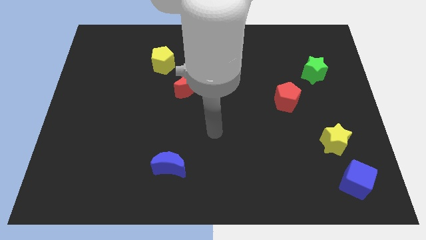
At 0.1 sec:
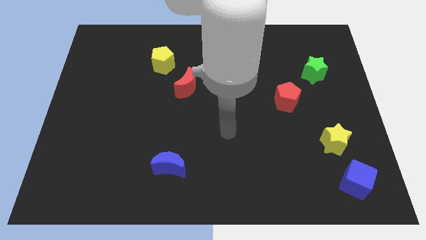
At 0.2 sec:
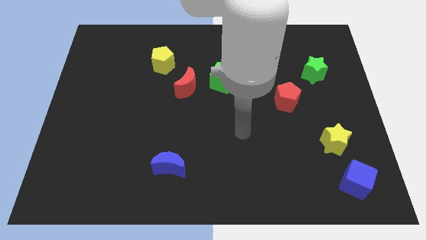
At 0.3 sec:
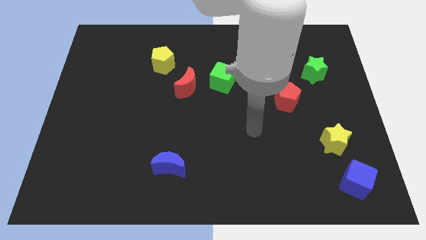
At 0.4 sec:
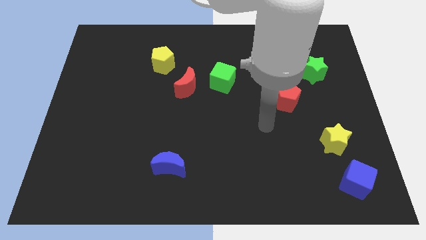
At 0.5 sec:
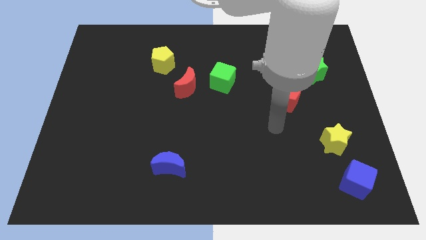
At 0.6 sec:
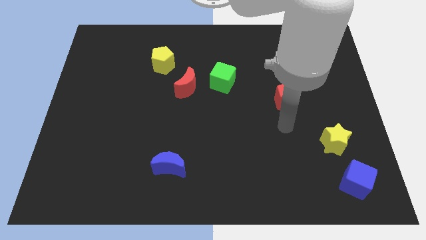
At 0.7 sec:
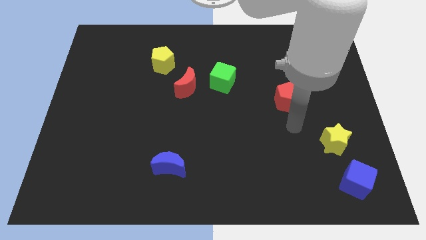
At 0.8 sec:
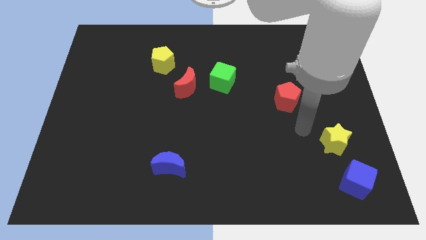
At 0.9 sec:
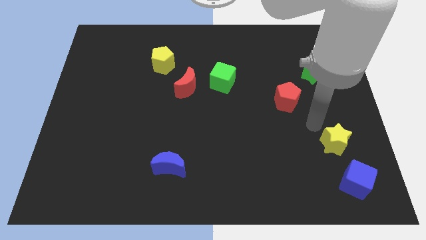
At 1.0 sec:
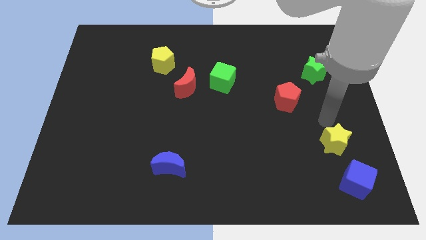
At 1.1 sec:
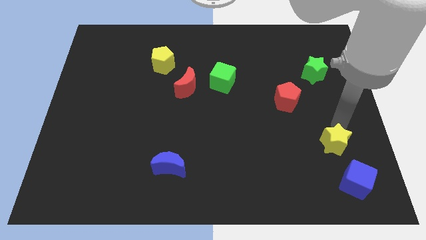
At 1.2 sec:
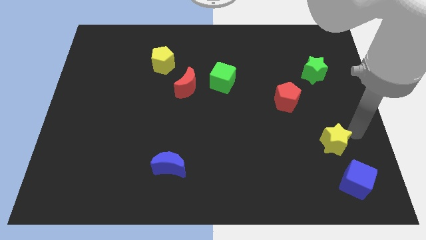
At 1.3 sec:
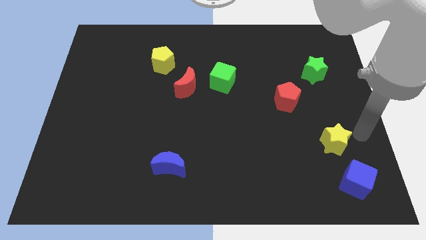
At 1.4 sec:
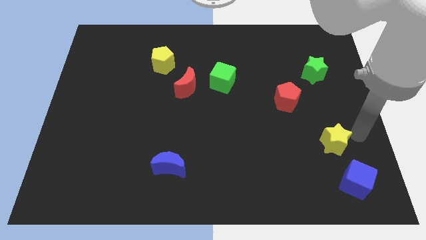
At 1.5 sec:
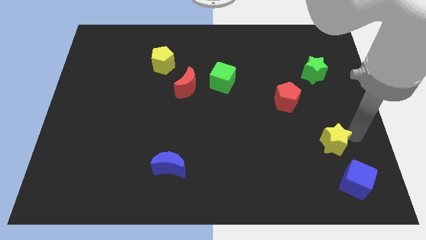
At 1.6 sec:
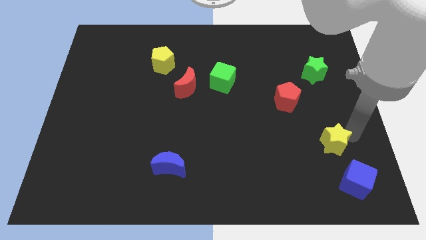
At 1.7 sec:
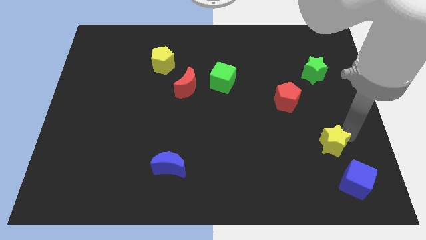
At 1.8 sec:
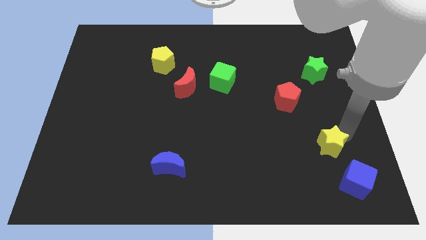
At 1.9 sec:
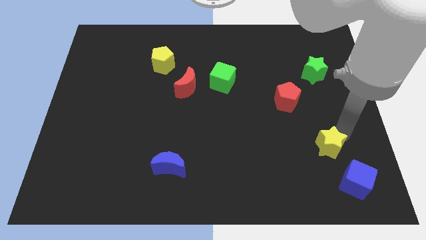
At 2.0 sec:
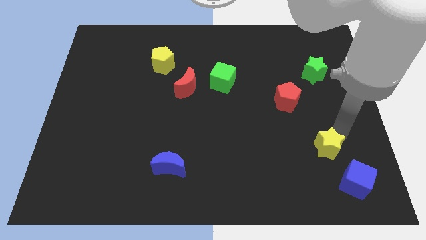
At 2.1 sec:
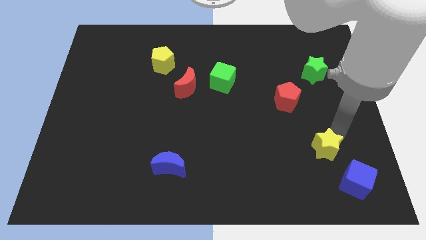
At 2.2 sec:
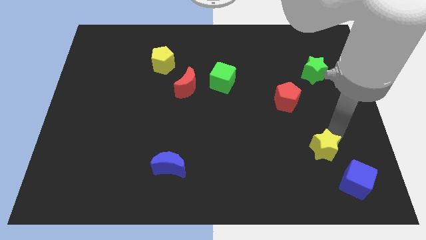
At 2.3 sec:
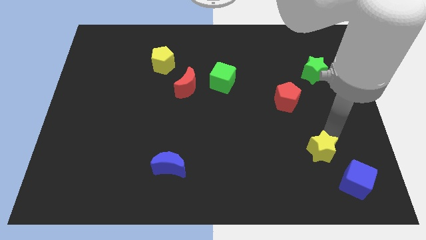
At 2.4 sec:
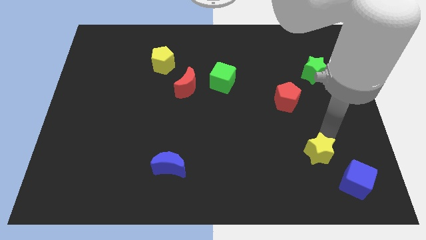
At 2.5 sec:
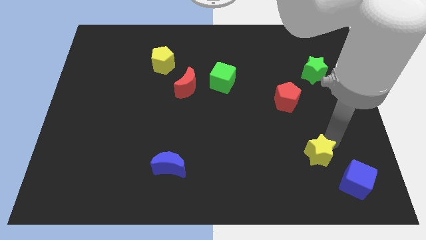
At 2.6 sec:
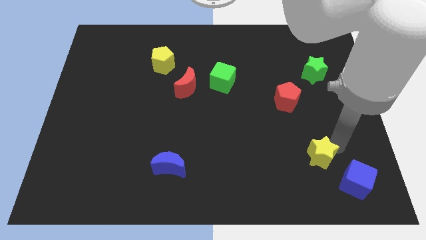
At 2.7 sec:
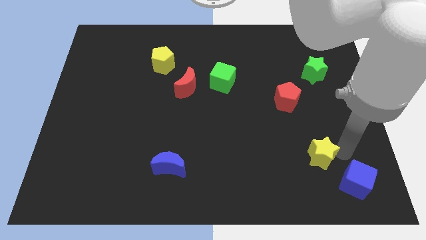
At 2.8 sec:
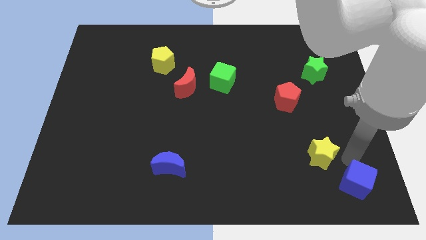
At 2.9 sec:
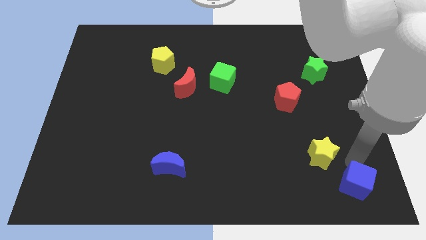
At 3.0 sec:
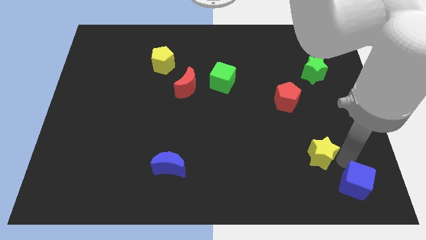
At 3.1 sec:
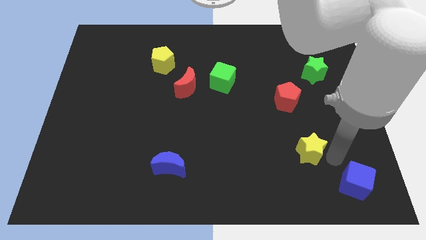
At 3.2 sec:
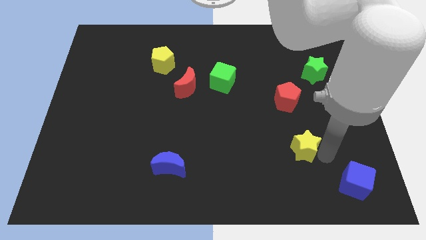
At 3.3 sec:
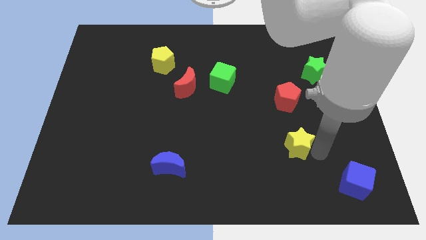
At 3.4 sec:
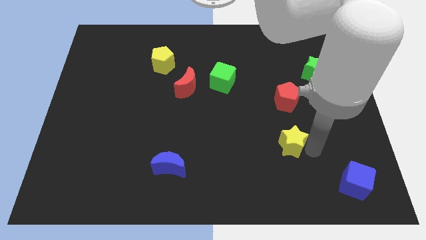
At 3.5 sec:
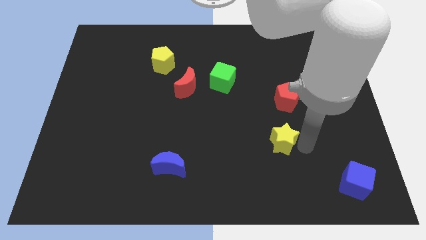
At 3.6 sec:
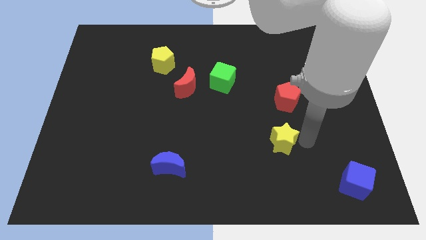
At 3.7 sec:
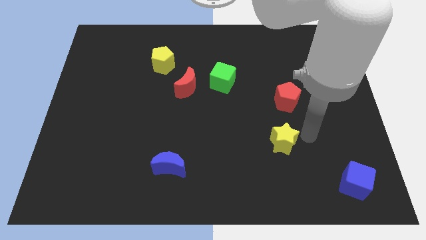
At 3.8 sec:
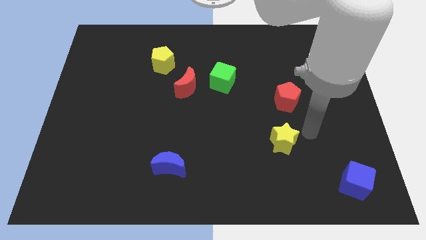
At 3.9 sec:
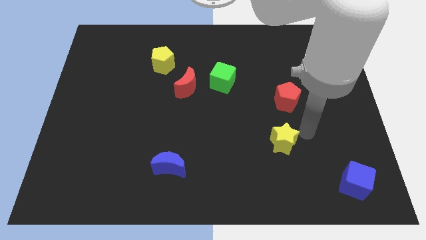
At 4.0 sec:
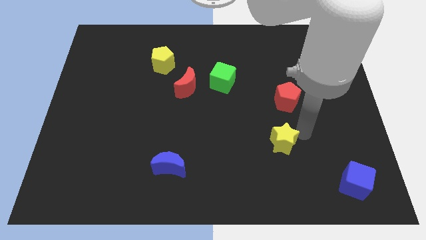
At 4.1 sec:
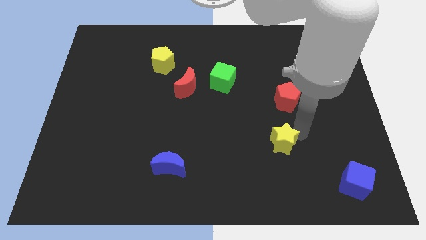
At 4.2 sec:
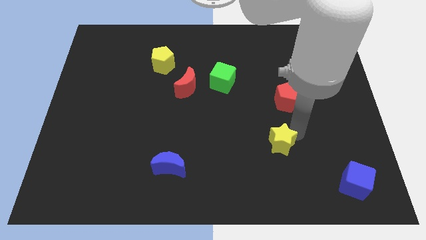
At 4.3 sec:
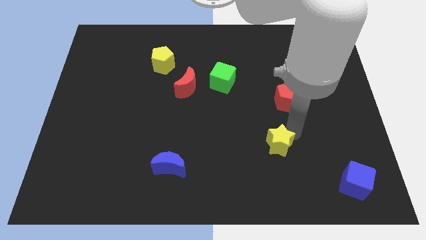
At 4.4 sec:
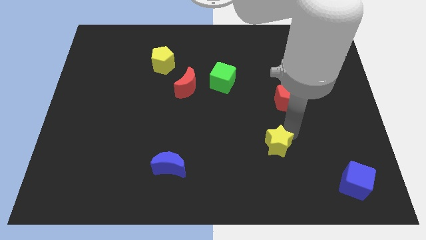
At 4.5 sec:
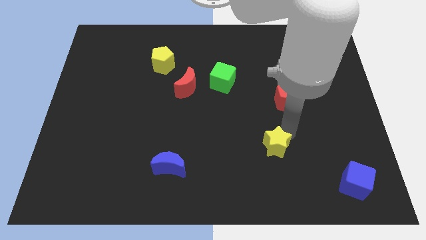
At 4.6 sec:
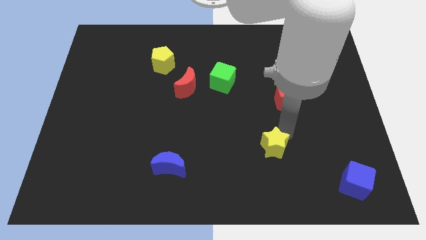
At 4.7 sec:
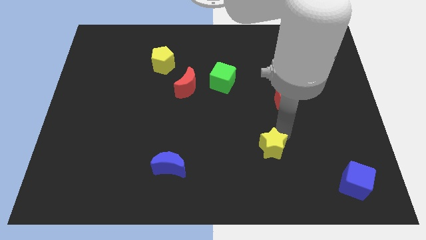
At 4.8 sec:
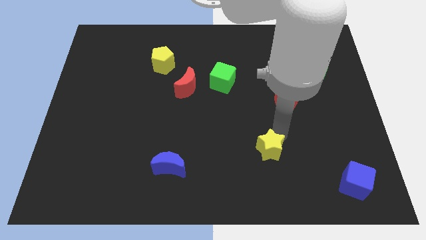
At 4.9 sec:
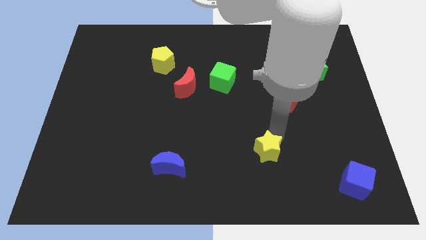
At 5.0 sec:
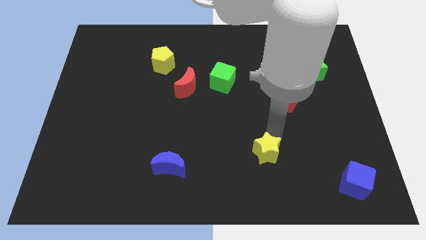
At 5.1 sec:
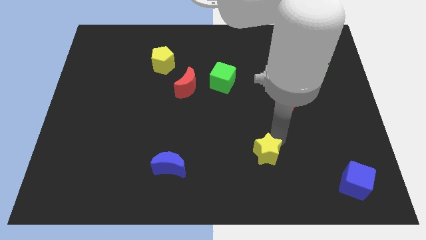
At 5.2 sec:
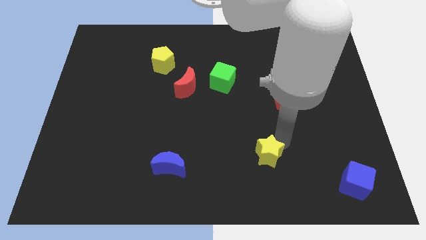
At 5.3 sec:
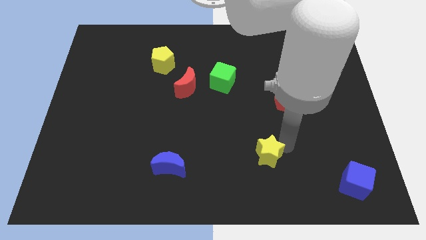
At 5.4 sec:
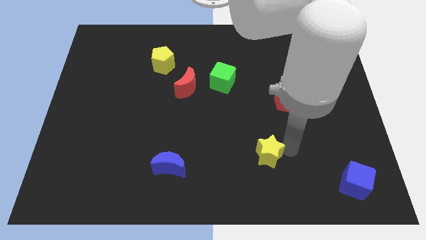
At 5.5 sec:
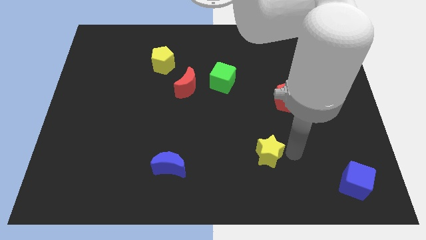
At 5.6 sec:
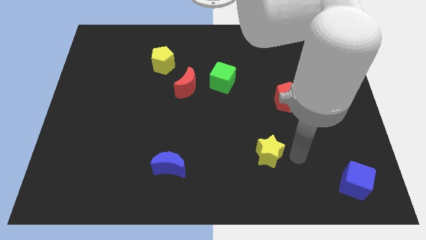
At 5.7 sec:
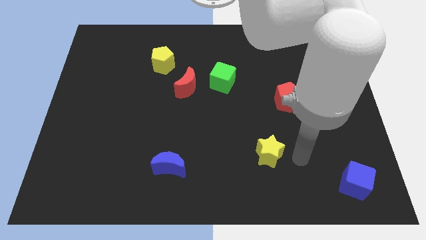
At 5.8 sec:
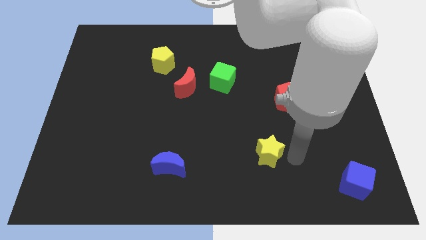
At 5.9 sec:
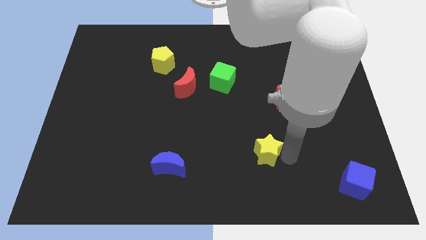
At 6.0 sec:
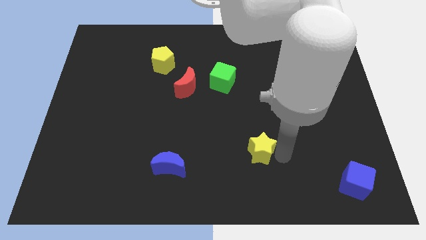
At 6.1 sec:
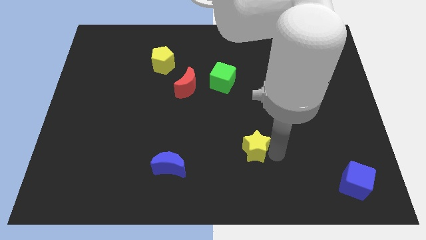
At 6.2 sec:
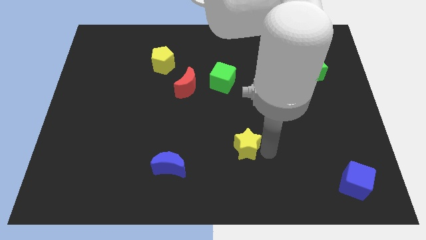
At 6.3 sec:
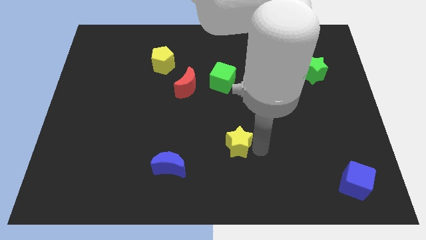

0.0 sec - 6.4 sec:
push the yellow star to the left

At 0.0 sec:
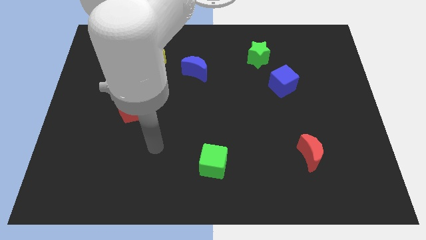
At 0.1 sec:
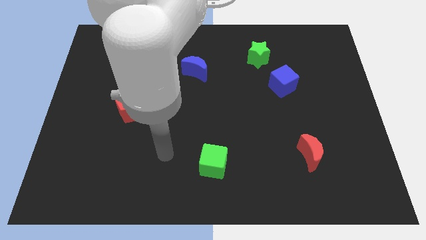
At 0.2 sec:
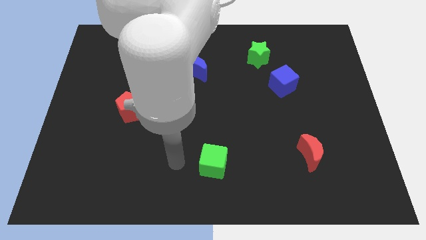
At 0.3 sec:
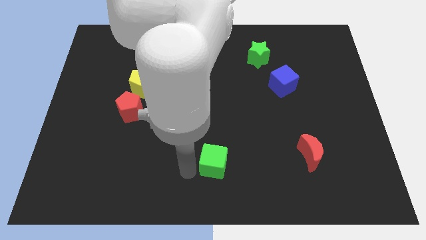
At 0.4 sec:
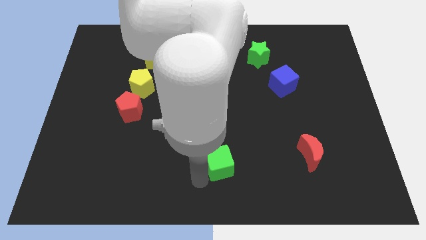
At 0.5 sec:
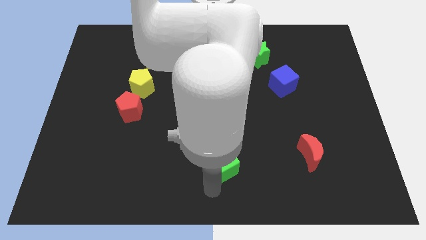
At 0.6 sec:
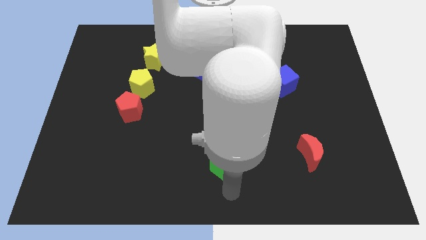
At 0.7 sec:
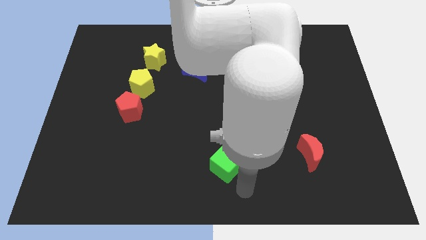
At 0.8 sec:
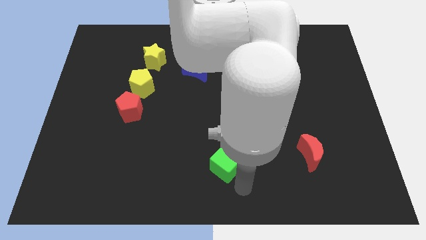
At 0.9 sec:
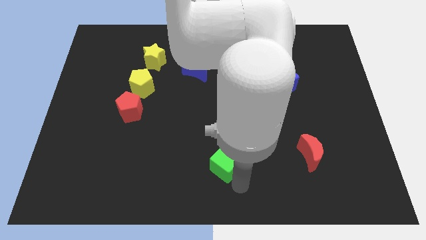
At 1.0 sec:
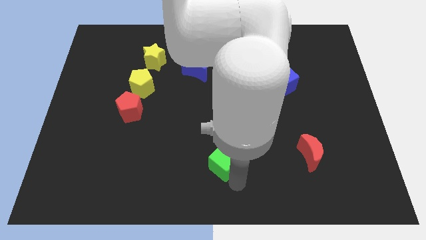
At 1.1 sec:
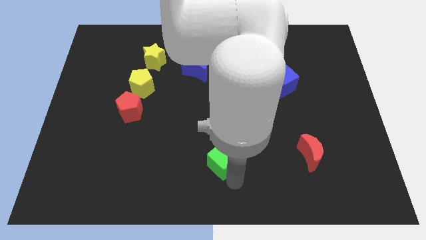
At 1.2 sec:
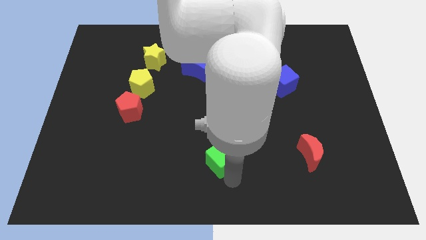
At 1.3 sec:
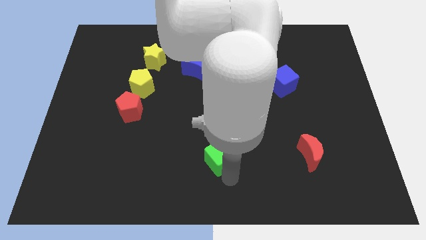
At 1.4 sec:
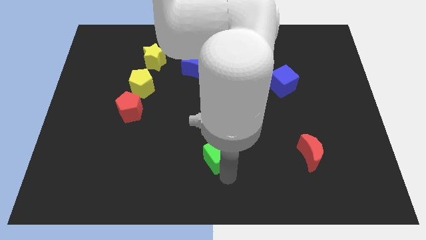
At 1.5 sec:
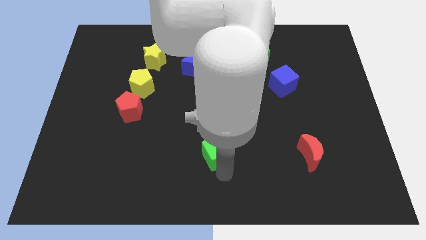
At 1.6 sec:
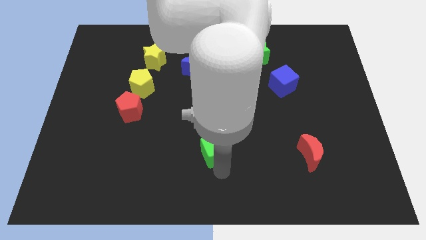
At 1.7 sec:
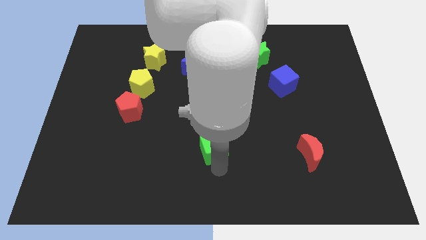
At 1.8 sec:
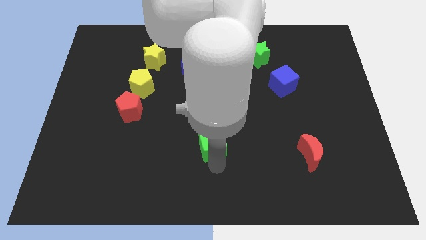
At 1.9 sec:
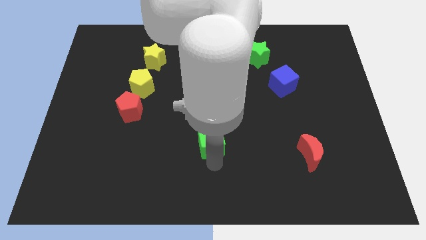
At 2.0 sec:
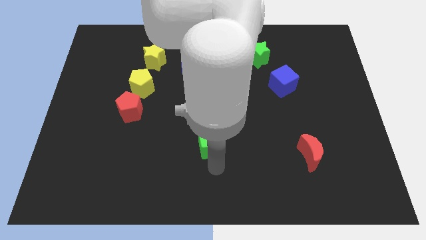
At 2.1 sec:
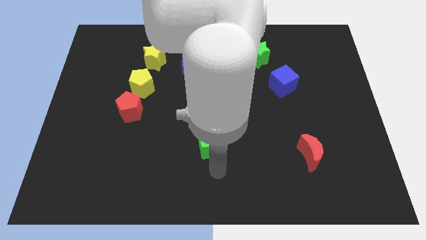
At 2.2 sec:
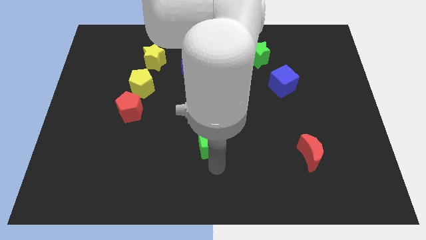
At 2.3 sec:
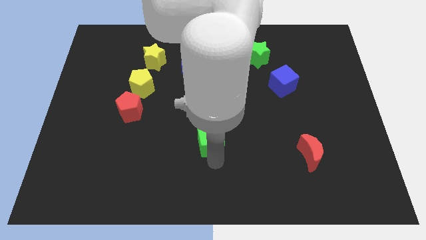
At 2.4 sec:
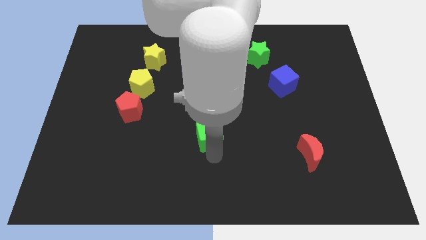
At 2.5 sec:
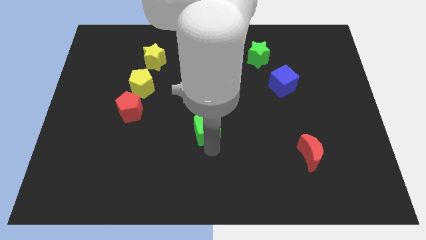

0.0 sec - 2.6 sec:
slightly push the green cube up
